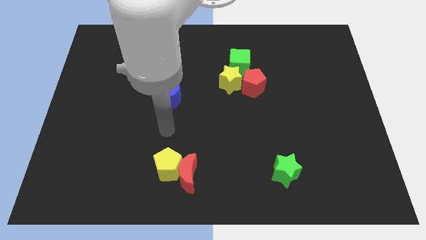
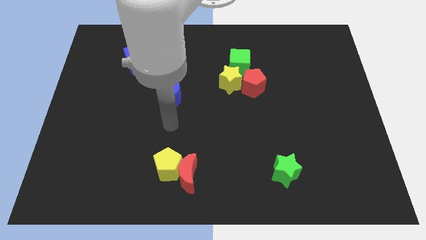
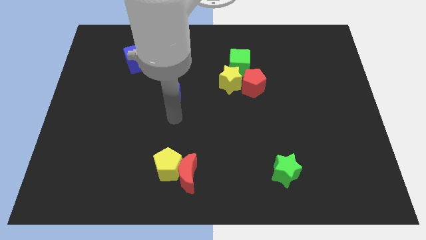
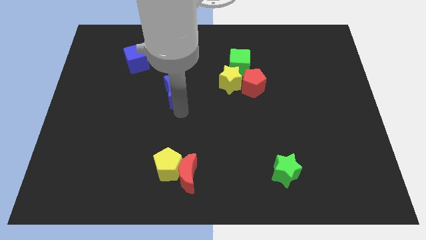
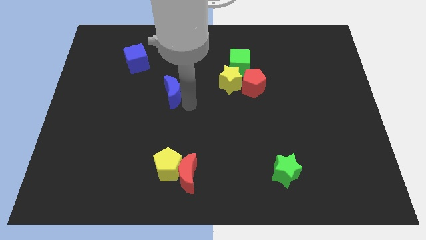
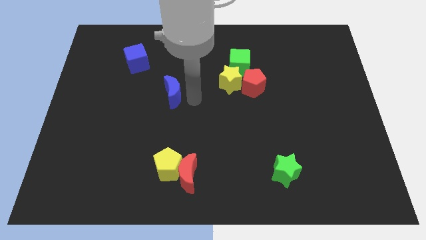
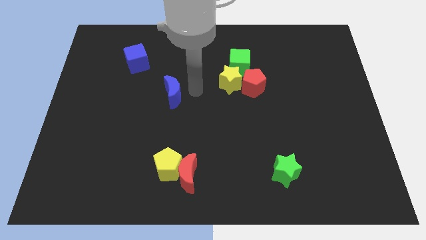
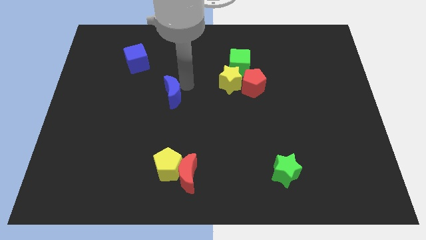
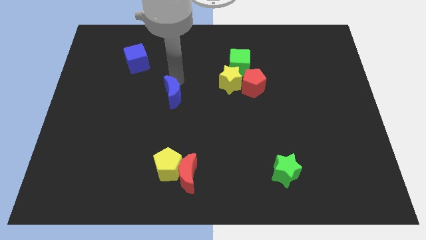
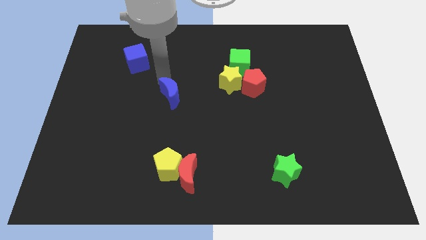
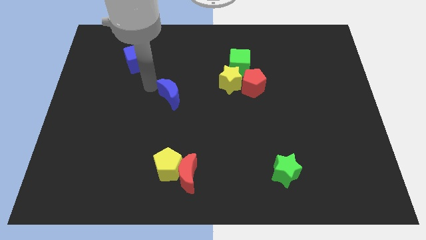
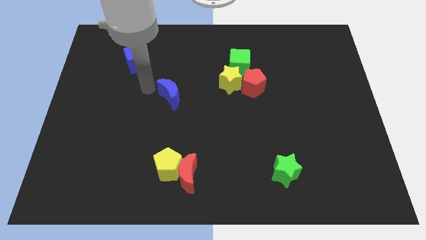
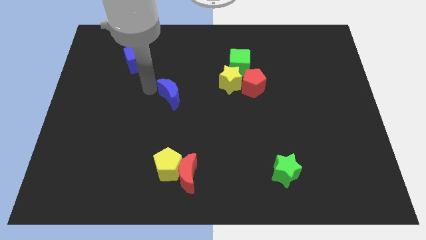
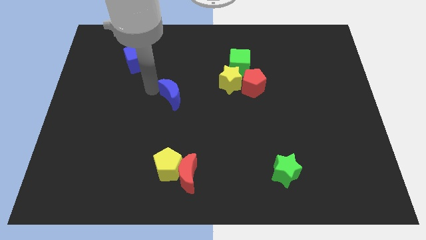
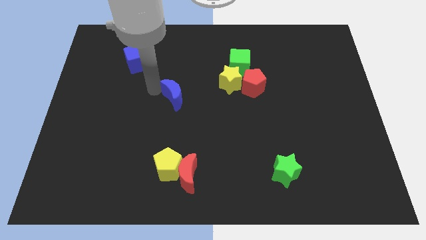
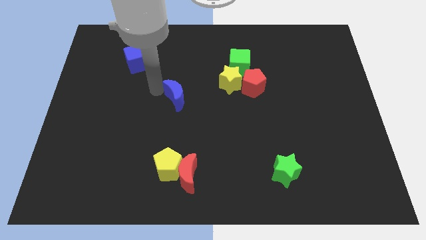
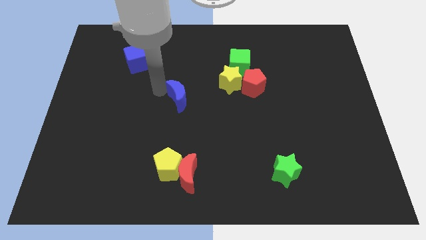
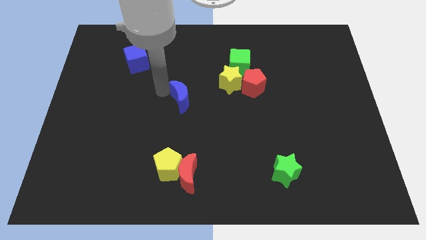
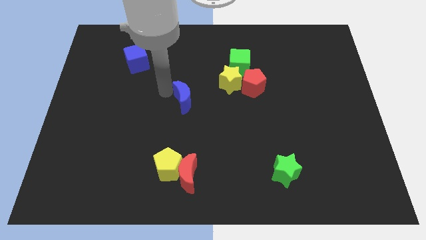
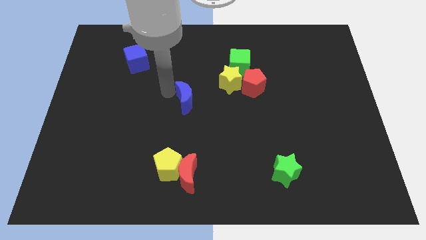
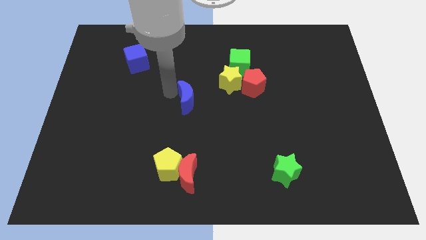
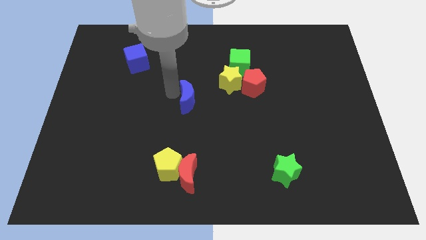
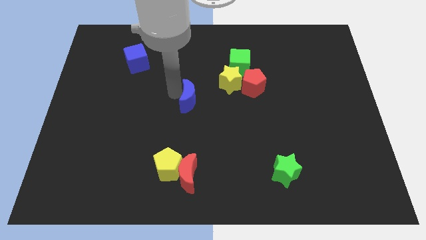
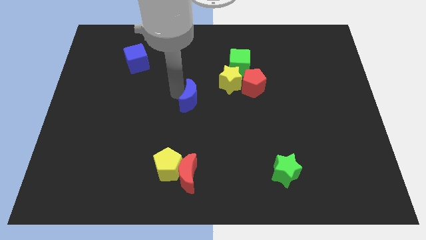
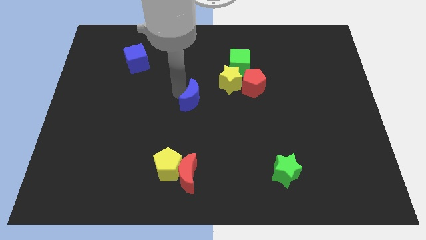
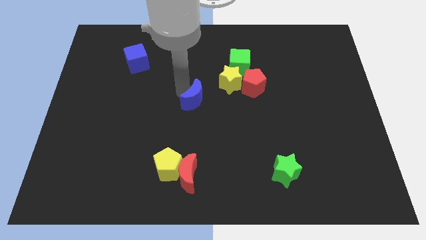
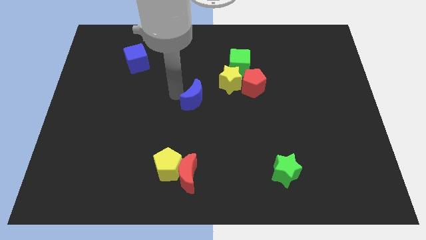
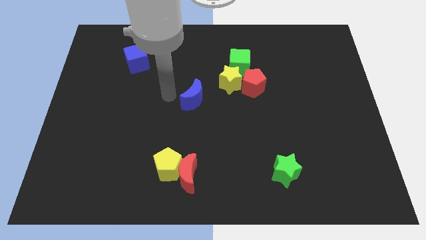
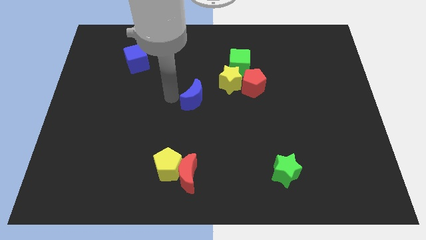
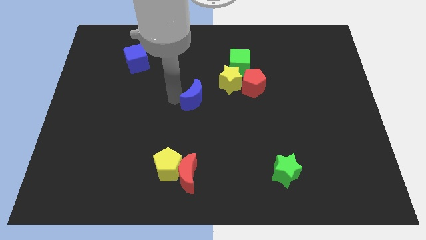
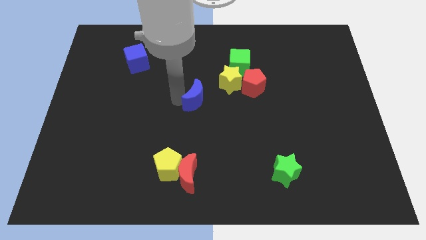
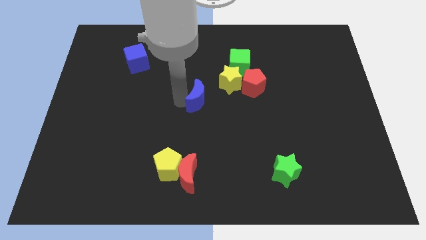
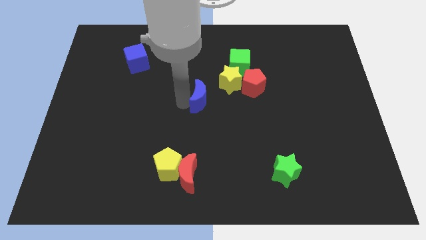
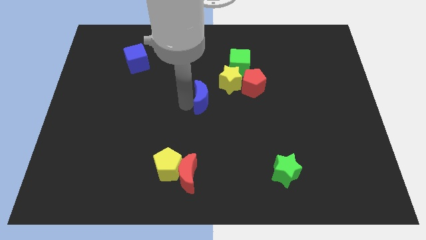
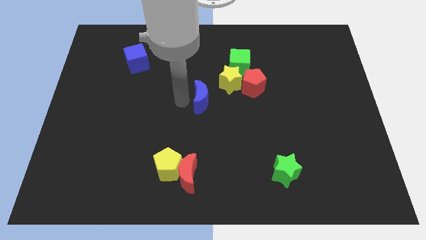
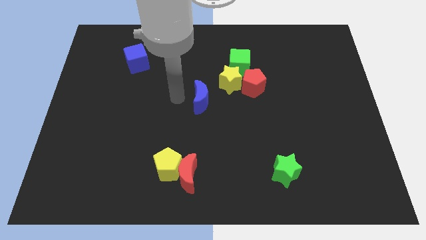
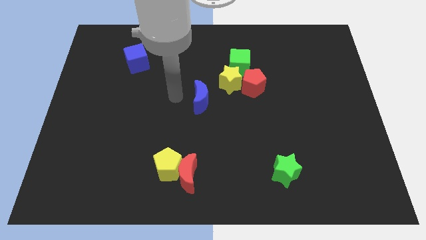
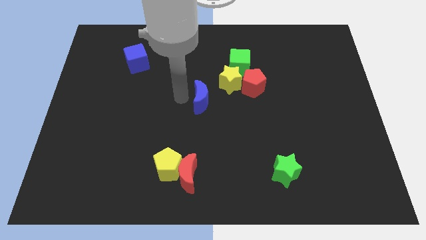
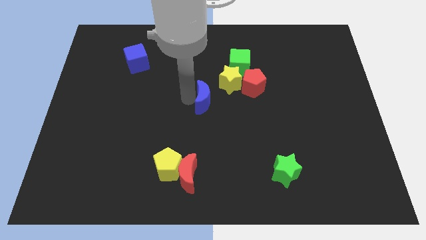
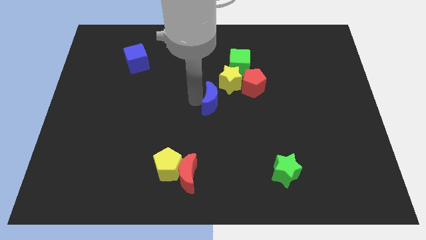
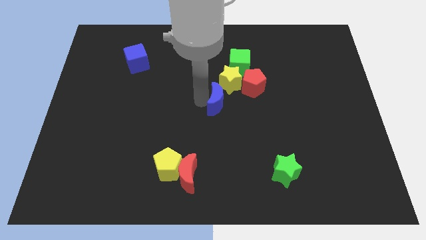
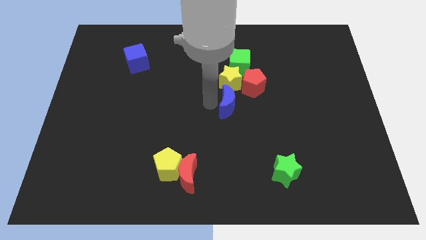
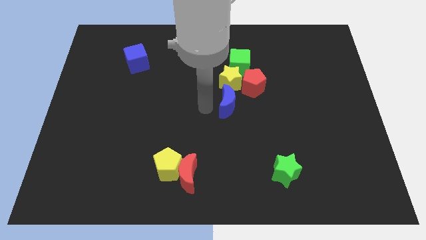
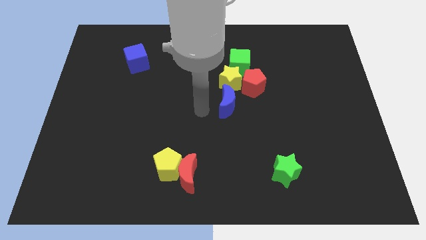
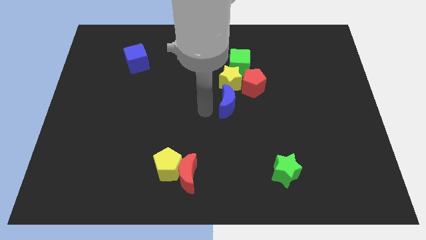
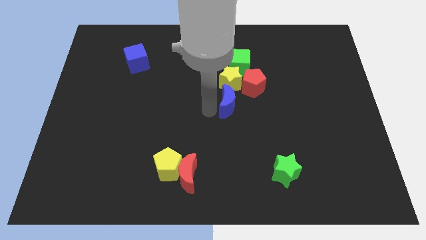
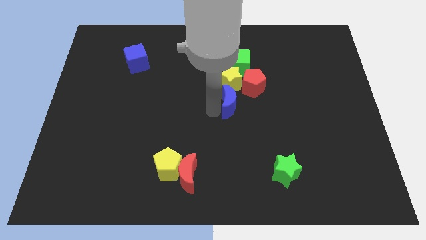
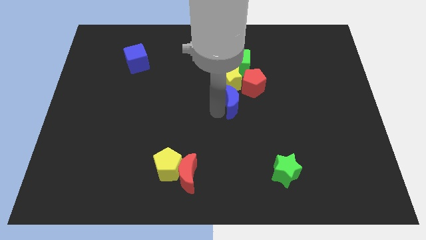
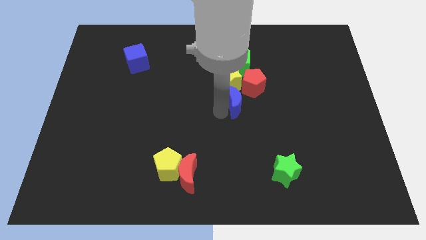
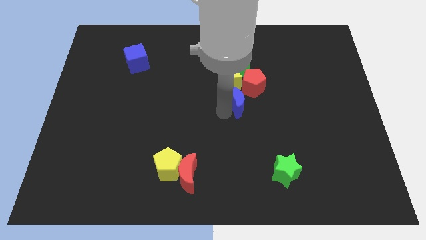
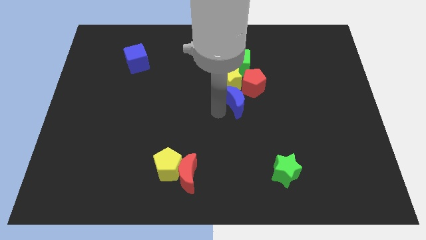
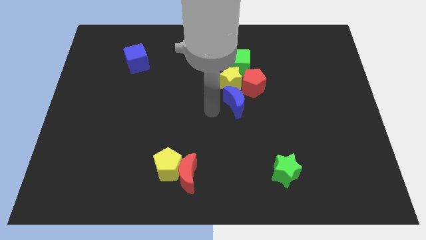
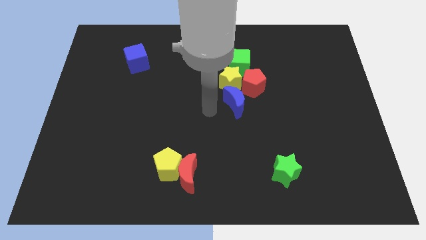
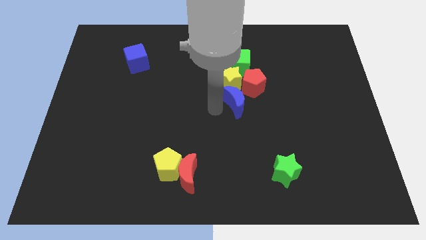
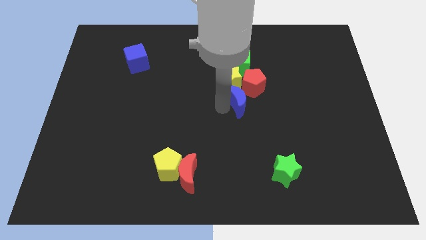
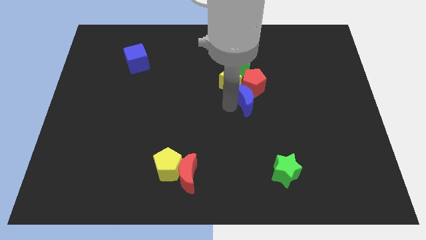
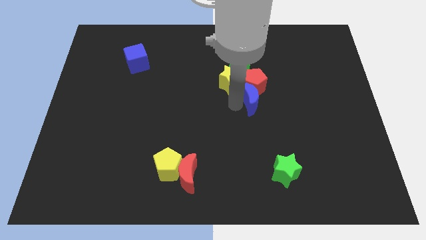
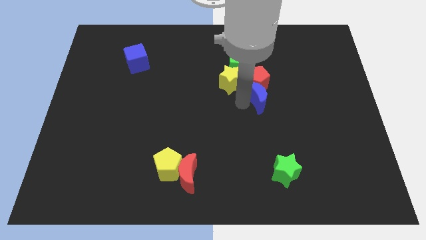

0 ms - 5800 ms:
move the blue moon to the right

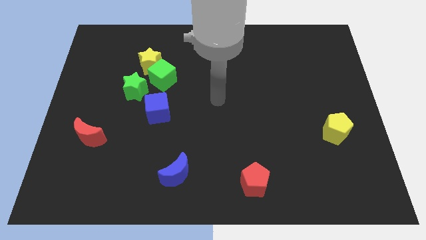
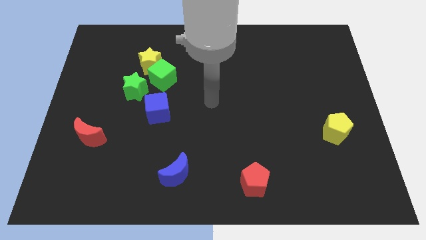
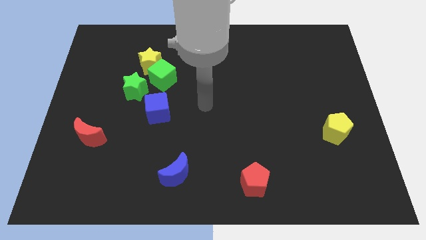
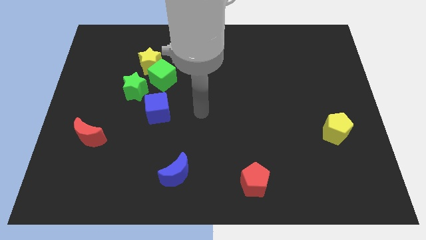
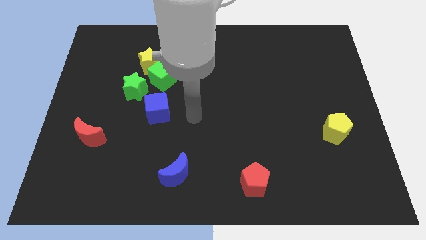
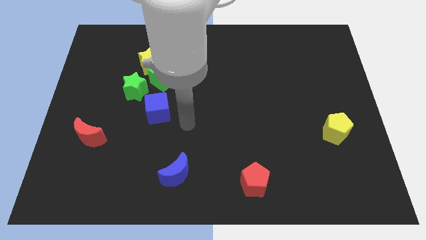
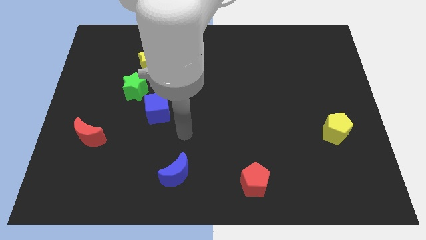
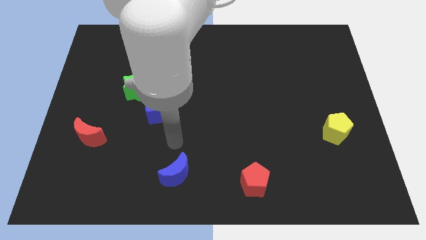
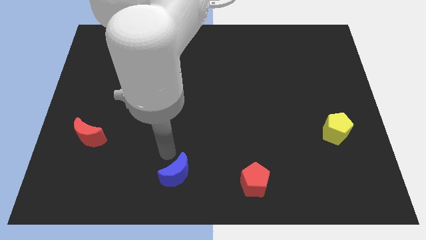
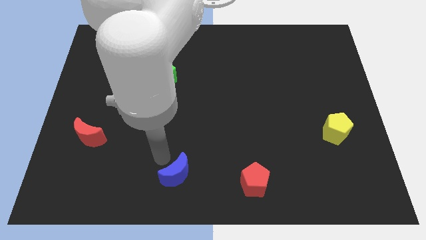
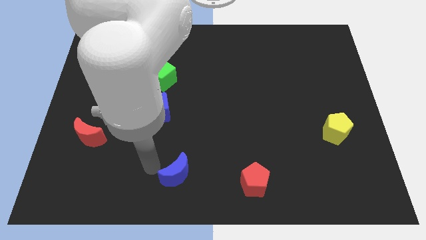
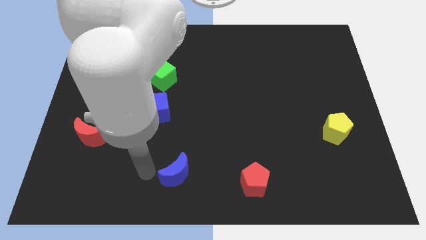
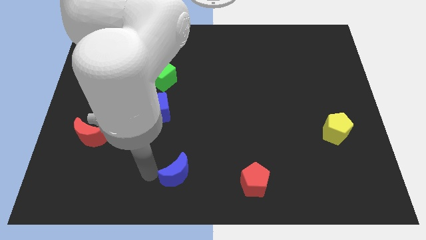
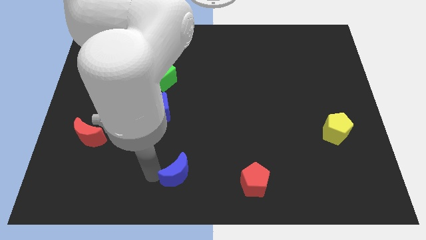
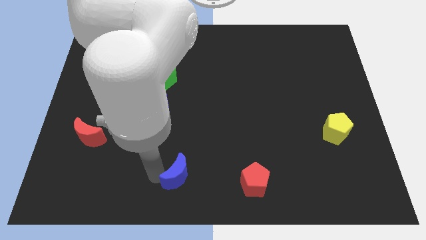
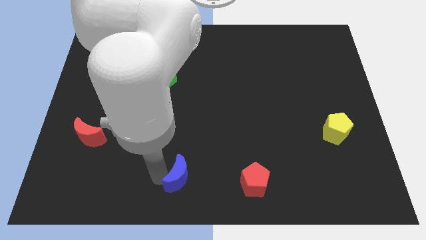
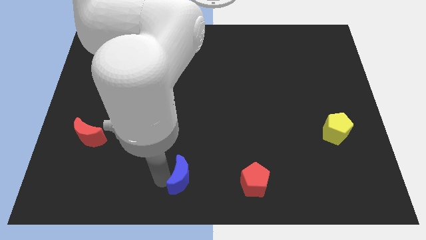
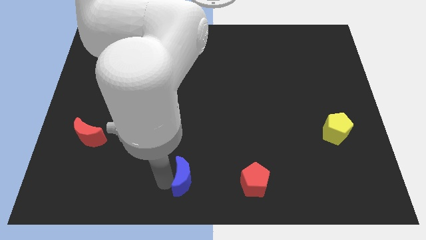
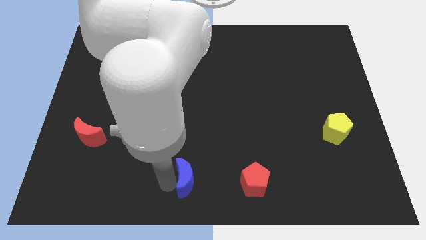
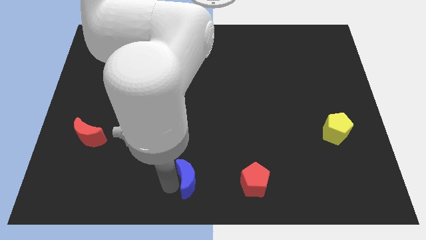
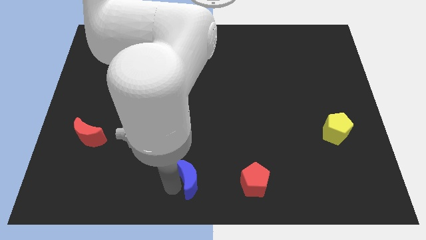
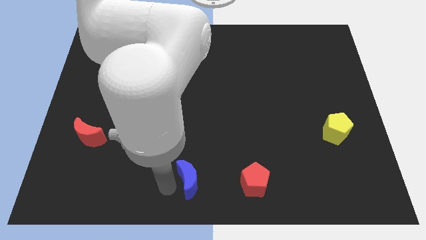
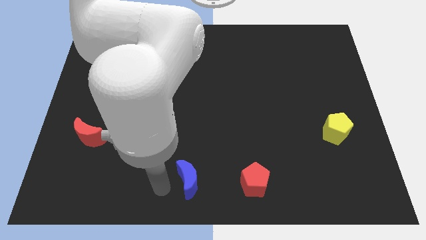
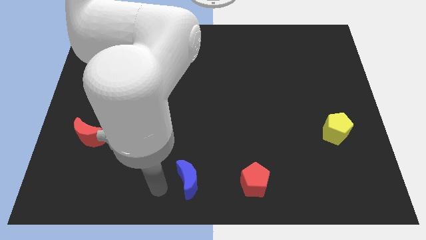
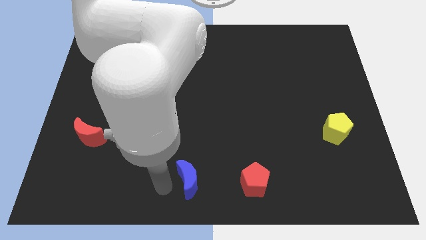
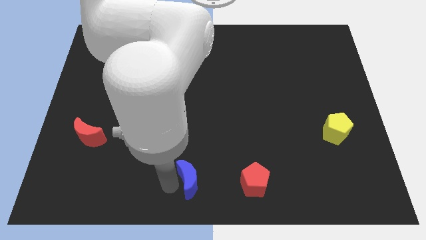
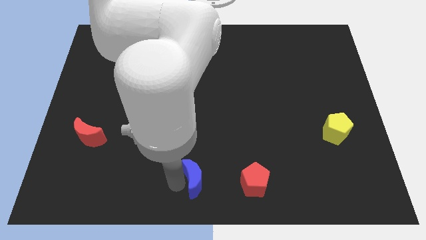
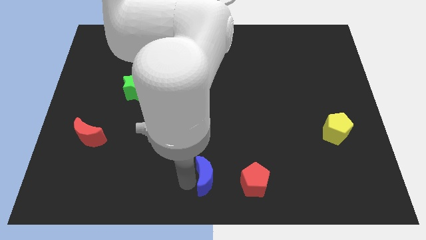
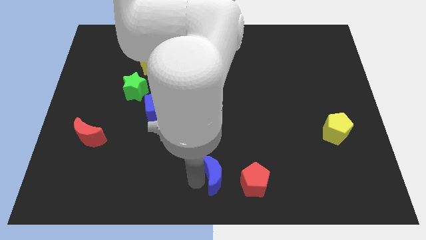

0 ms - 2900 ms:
slightly slide the blue moon right
